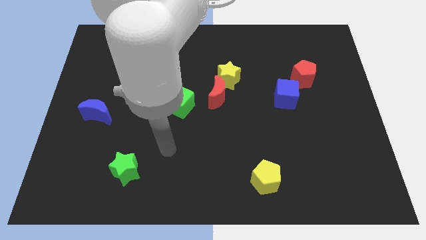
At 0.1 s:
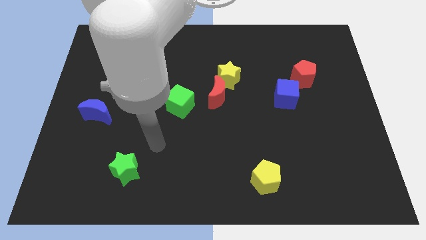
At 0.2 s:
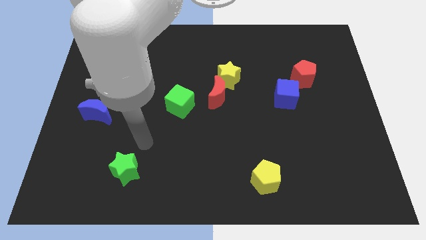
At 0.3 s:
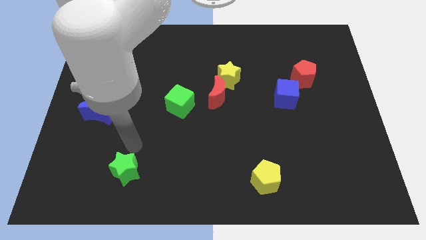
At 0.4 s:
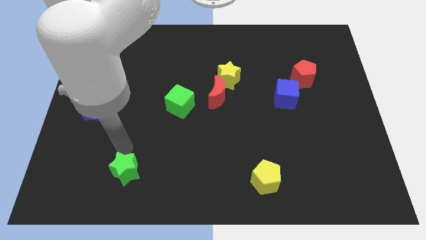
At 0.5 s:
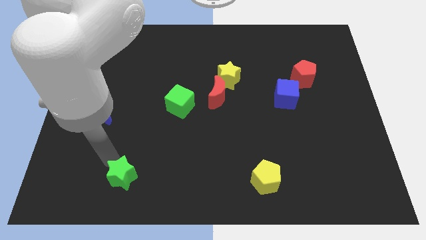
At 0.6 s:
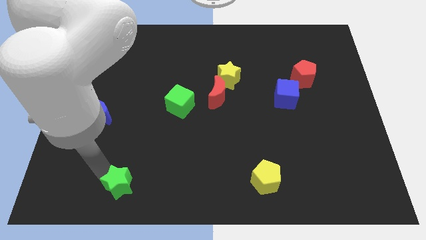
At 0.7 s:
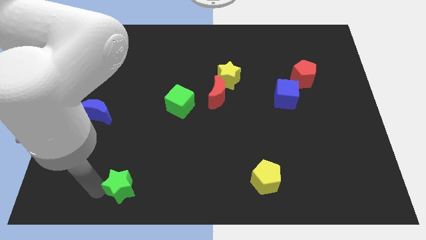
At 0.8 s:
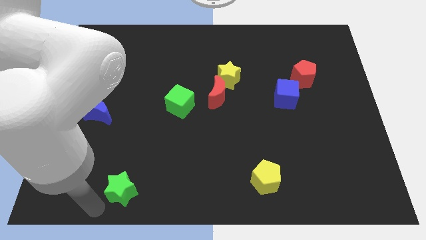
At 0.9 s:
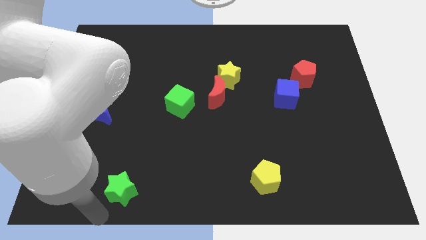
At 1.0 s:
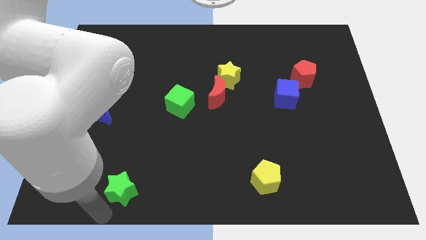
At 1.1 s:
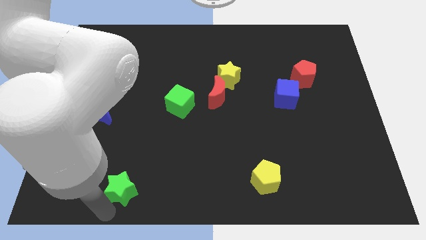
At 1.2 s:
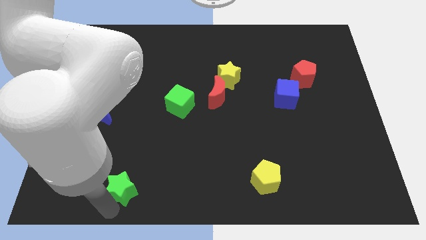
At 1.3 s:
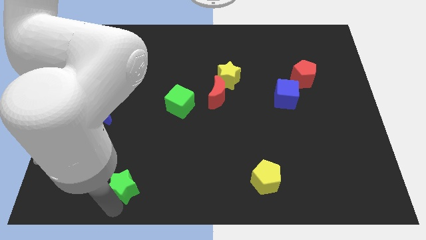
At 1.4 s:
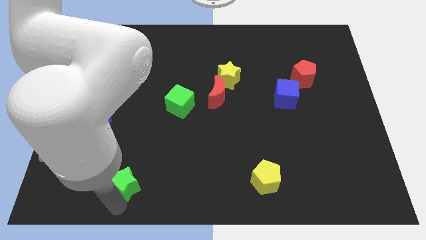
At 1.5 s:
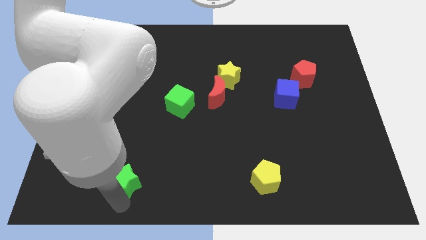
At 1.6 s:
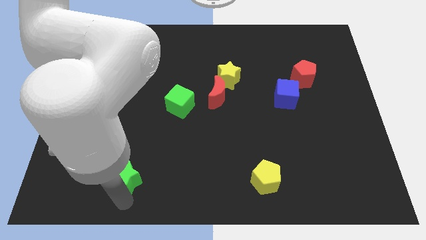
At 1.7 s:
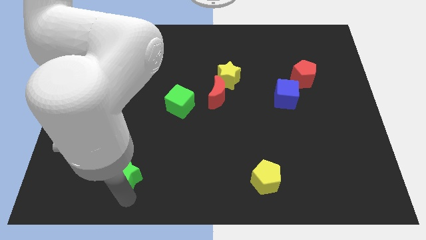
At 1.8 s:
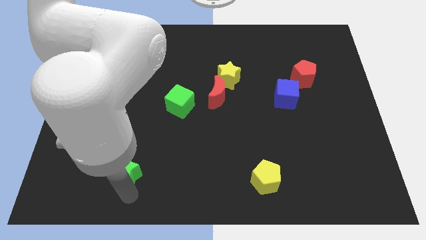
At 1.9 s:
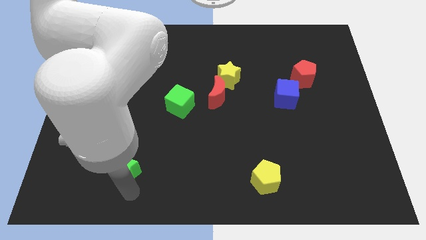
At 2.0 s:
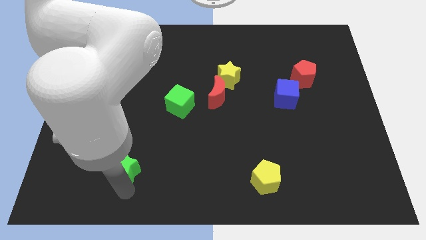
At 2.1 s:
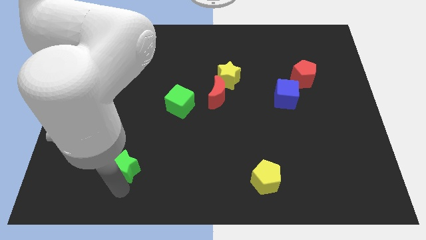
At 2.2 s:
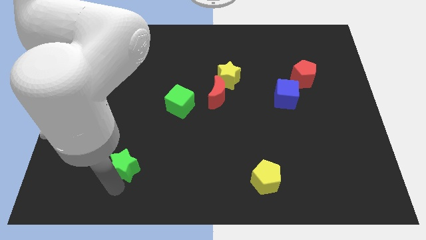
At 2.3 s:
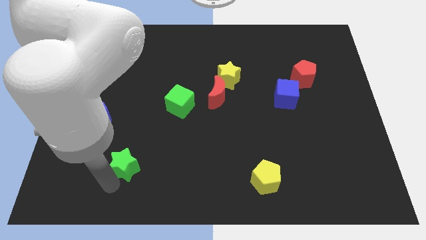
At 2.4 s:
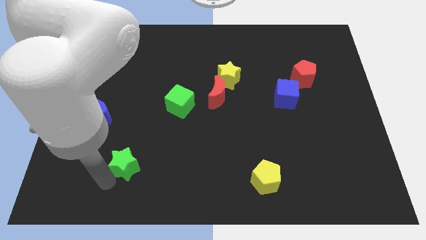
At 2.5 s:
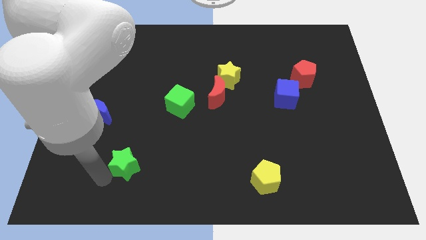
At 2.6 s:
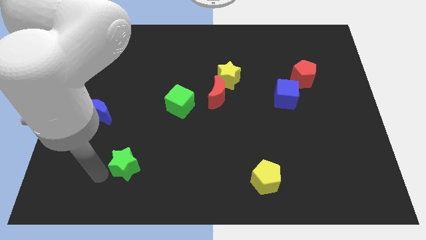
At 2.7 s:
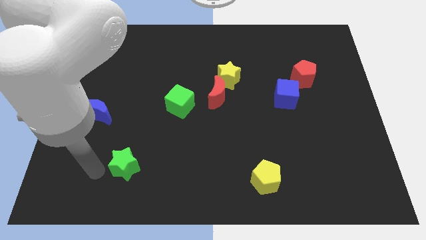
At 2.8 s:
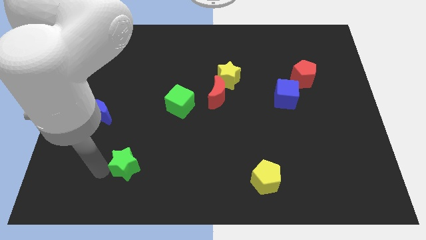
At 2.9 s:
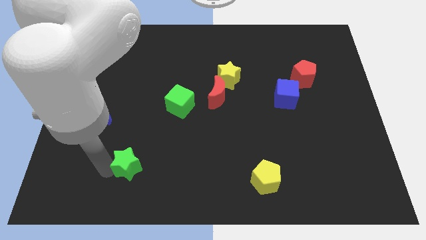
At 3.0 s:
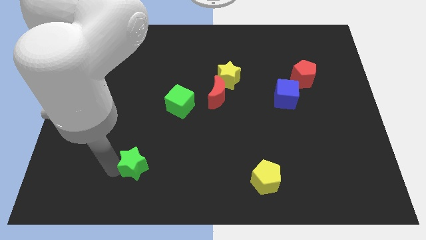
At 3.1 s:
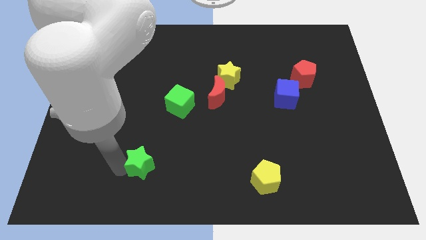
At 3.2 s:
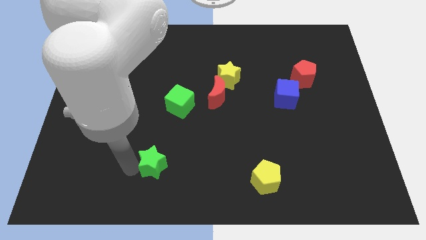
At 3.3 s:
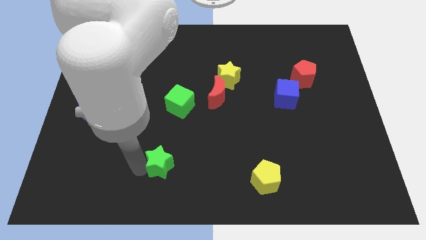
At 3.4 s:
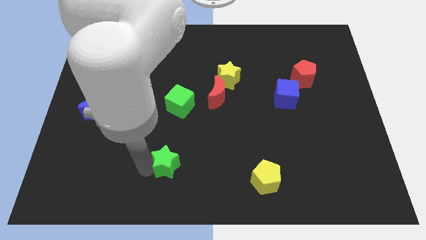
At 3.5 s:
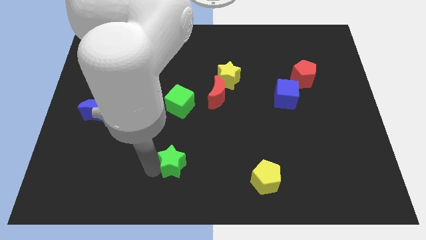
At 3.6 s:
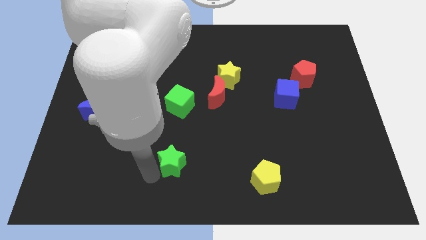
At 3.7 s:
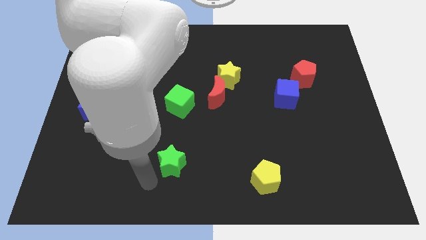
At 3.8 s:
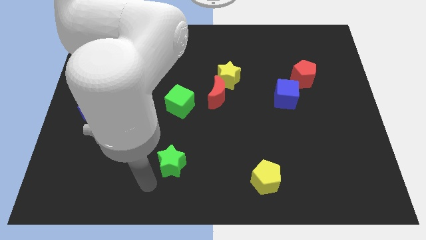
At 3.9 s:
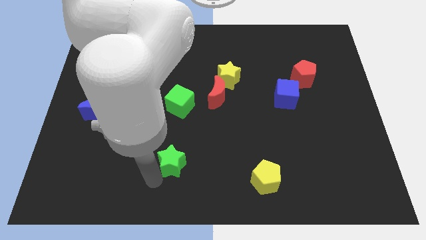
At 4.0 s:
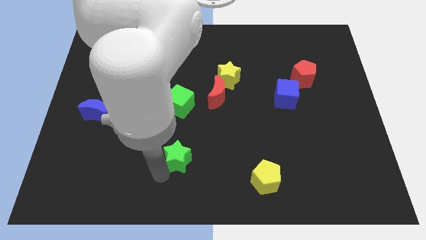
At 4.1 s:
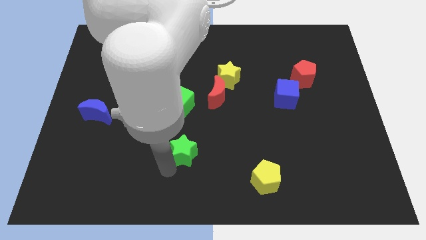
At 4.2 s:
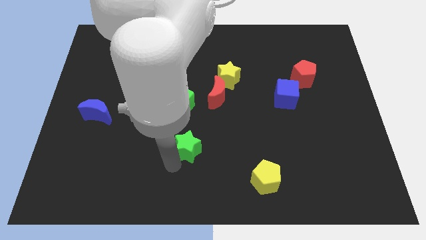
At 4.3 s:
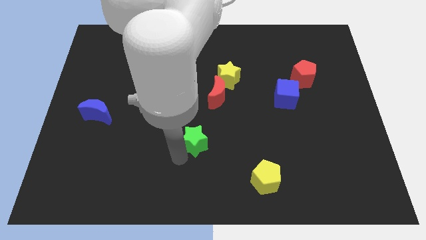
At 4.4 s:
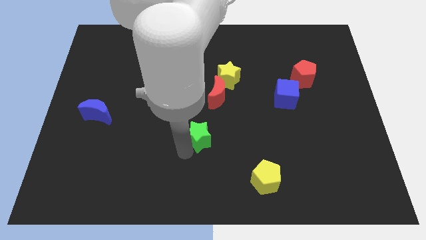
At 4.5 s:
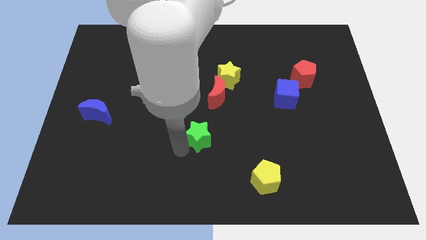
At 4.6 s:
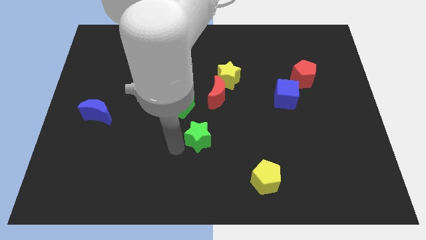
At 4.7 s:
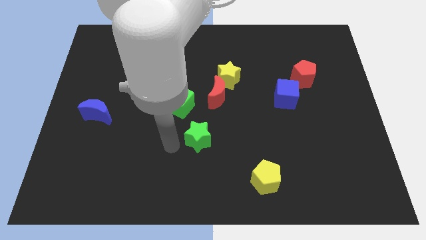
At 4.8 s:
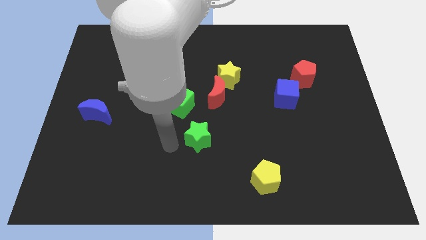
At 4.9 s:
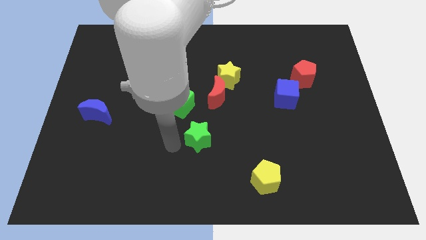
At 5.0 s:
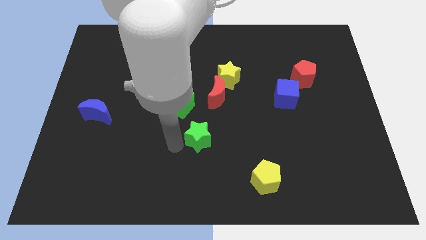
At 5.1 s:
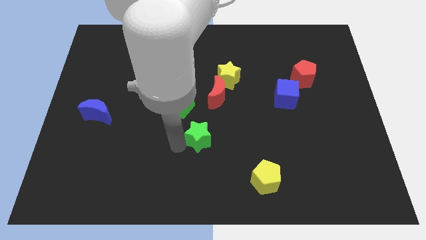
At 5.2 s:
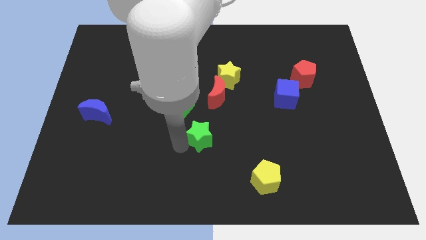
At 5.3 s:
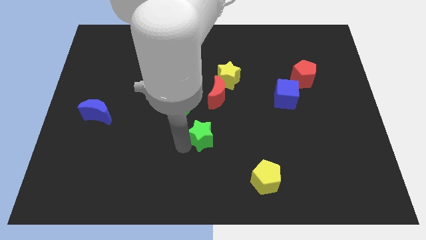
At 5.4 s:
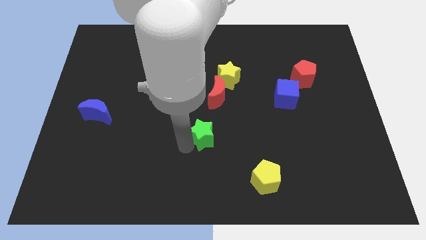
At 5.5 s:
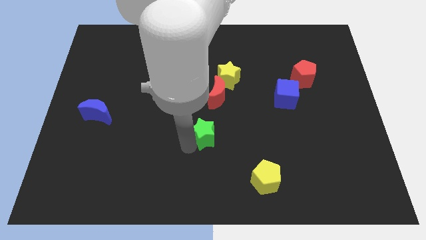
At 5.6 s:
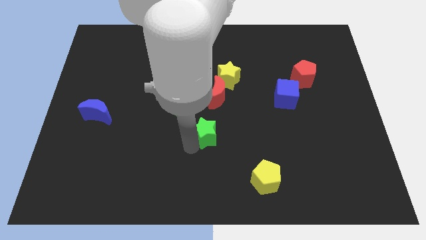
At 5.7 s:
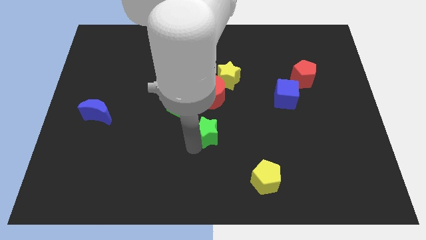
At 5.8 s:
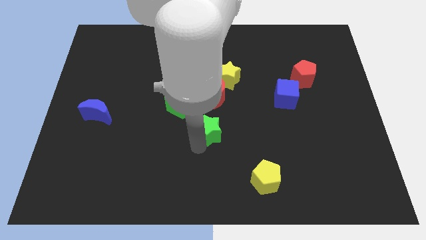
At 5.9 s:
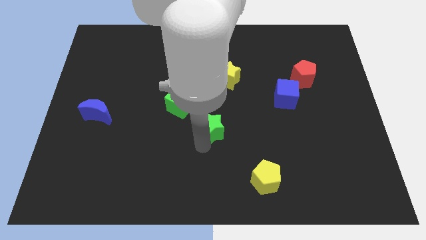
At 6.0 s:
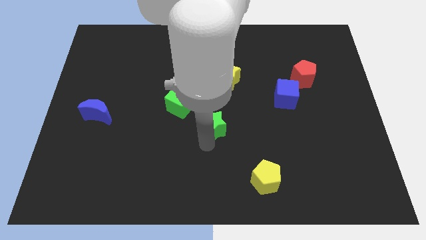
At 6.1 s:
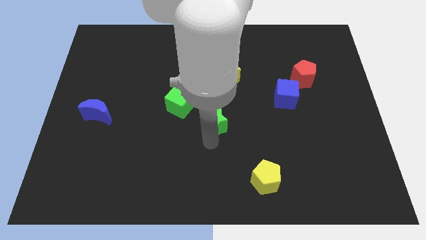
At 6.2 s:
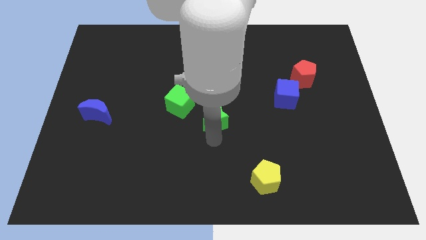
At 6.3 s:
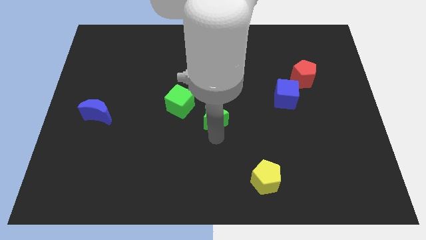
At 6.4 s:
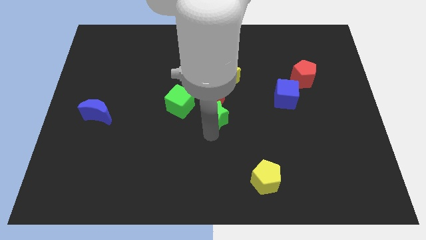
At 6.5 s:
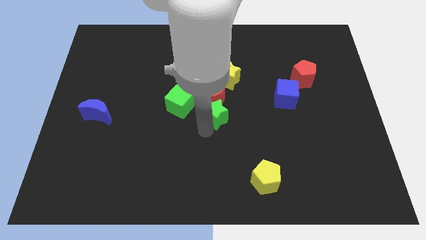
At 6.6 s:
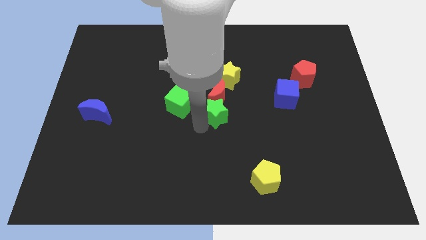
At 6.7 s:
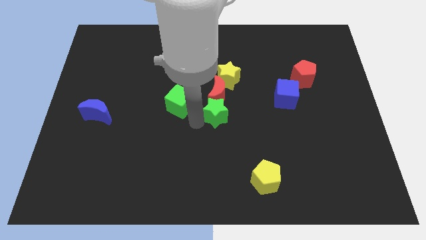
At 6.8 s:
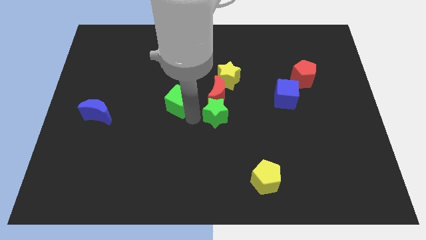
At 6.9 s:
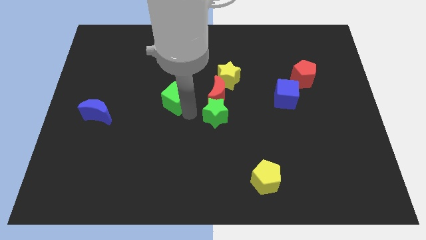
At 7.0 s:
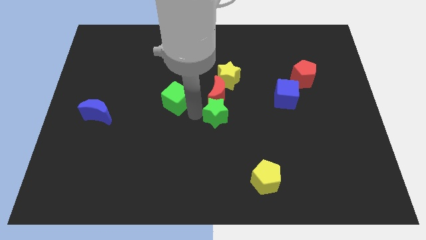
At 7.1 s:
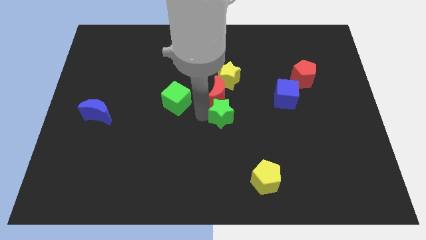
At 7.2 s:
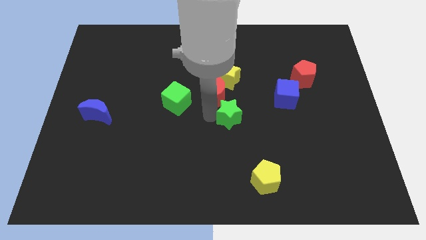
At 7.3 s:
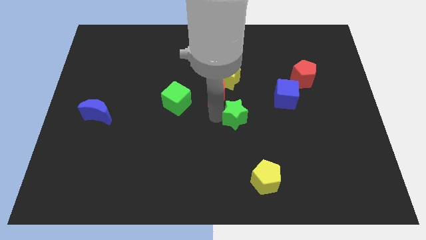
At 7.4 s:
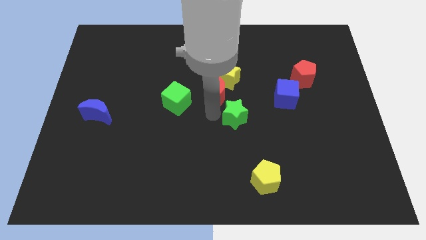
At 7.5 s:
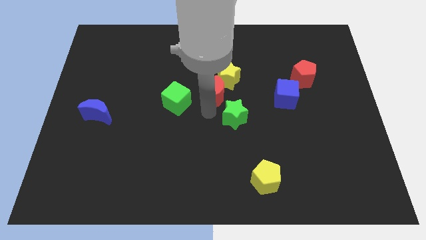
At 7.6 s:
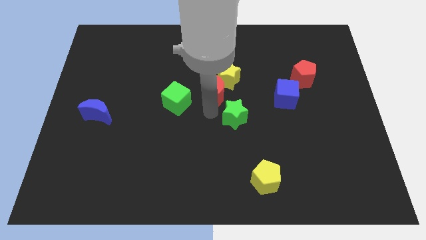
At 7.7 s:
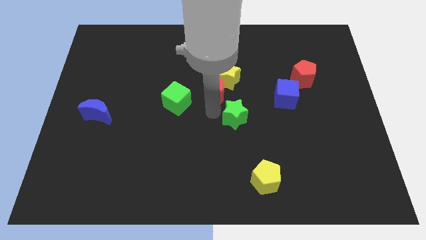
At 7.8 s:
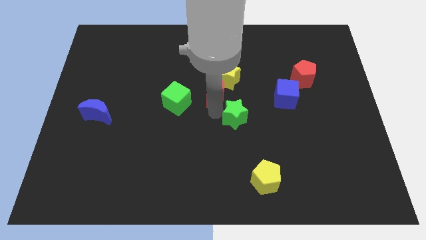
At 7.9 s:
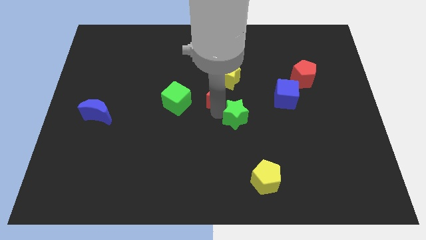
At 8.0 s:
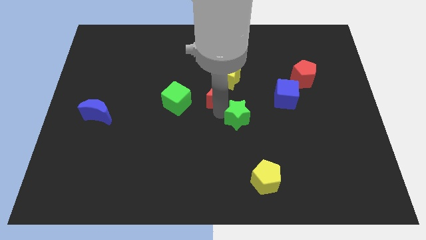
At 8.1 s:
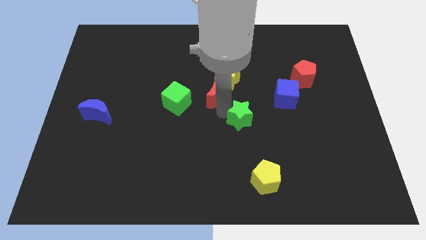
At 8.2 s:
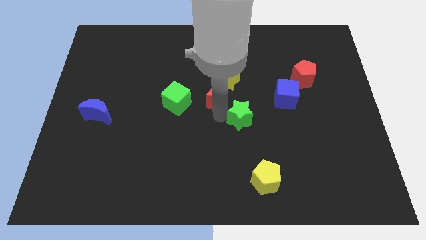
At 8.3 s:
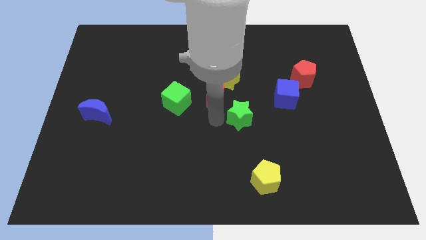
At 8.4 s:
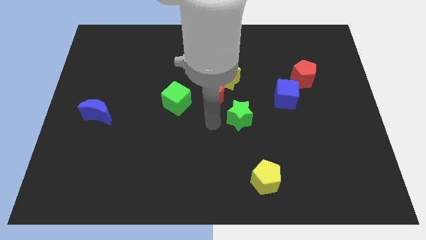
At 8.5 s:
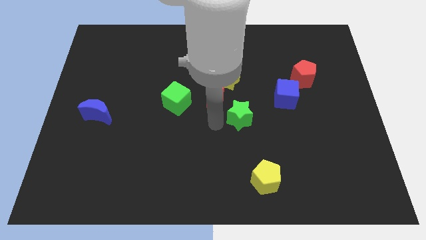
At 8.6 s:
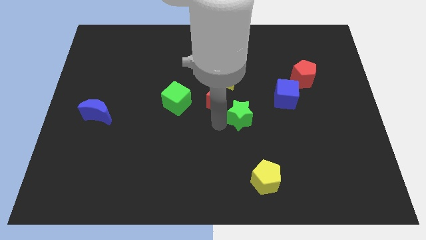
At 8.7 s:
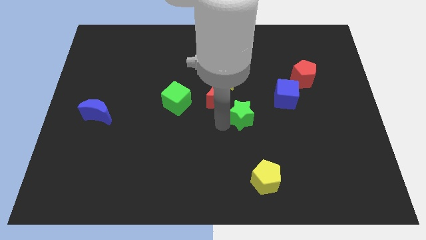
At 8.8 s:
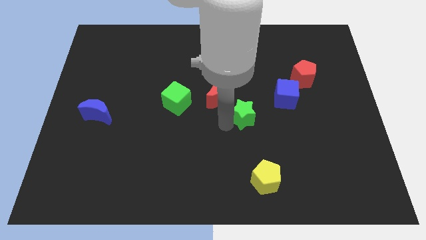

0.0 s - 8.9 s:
move the green star to the bottom left of the blue cube
